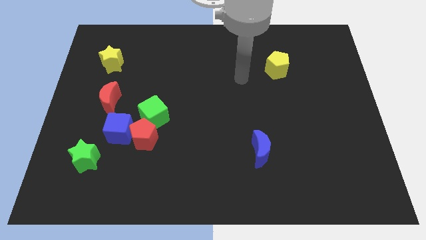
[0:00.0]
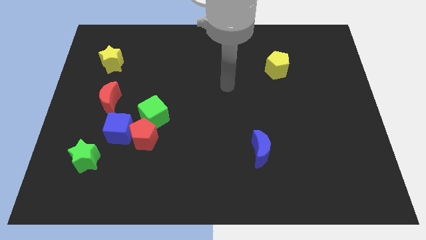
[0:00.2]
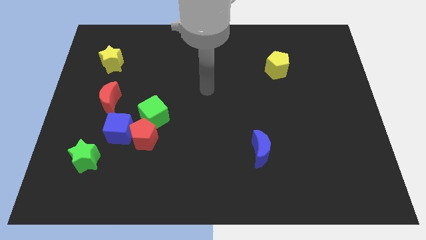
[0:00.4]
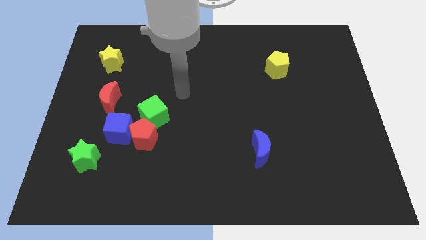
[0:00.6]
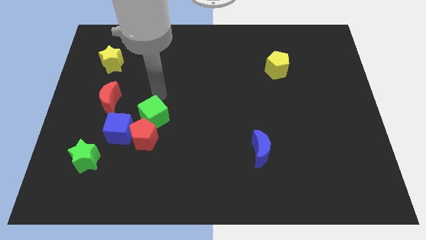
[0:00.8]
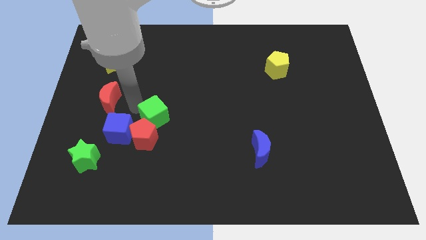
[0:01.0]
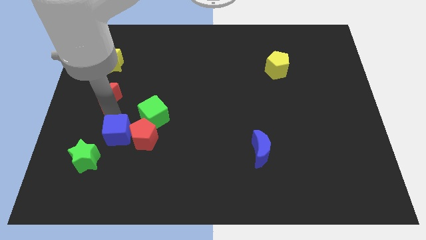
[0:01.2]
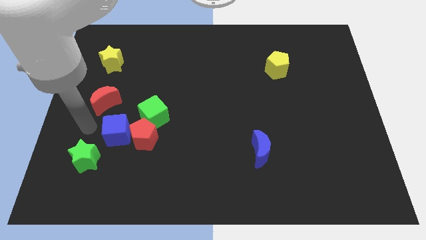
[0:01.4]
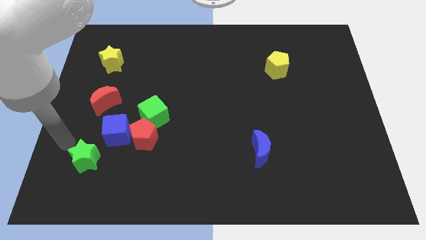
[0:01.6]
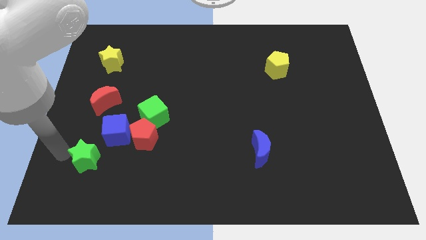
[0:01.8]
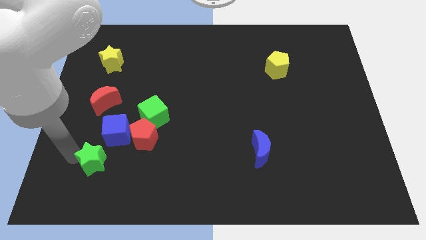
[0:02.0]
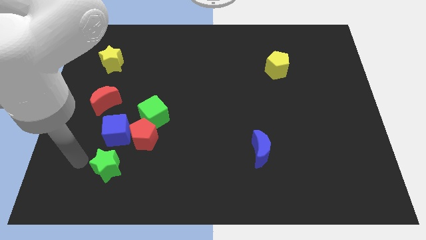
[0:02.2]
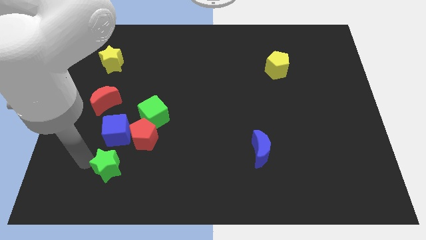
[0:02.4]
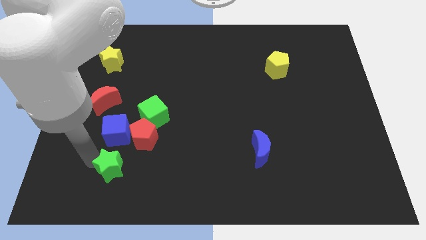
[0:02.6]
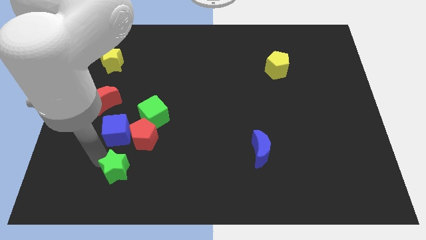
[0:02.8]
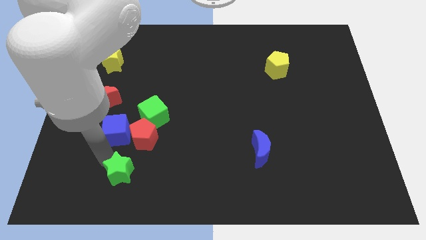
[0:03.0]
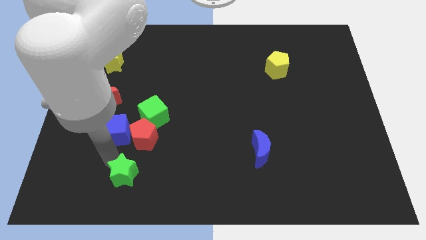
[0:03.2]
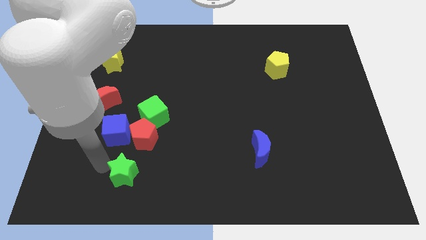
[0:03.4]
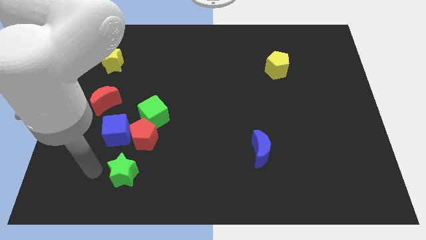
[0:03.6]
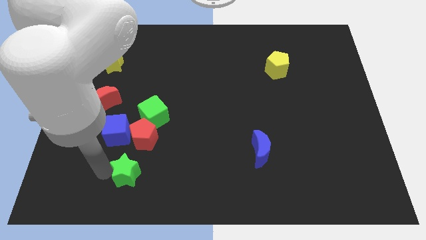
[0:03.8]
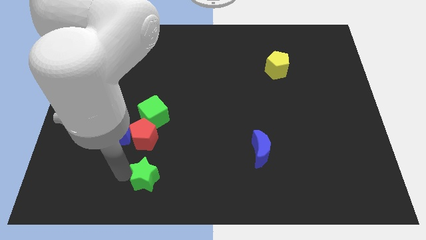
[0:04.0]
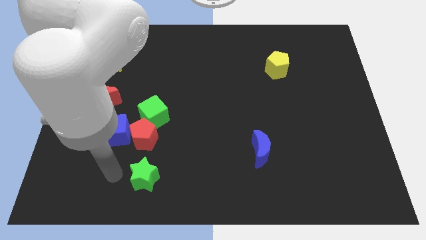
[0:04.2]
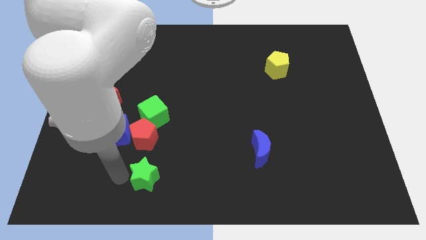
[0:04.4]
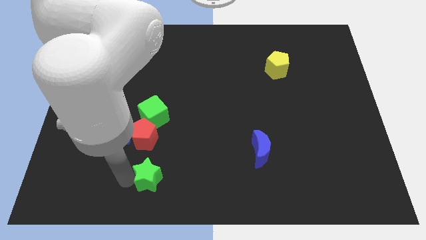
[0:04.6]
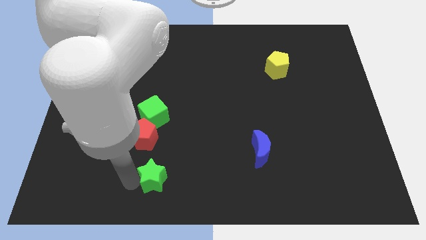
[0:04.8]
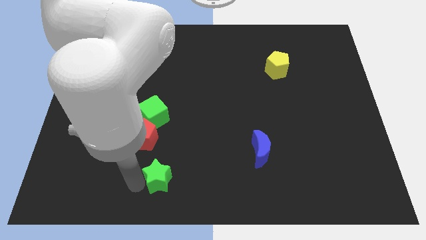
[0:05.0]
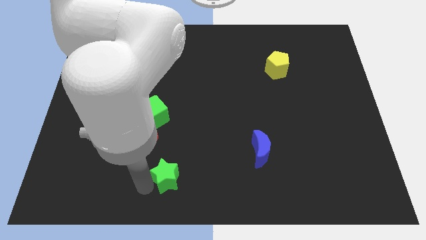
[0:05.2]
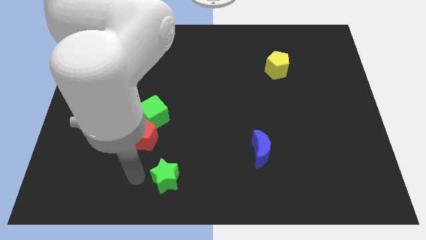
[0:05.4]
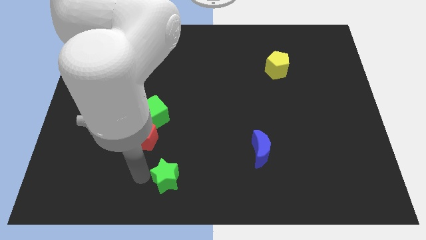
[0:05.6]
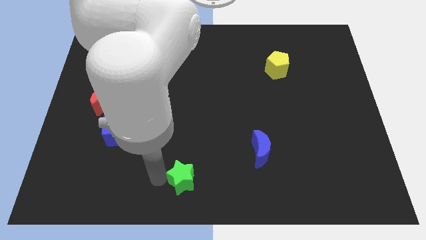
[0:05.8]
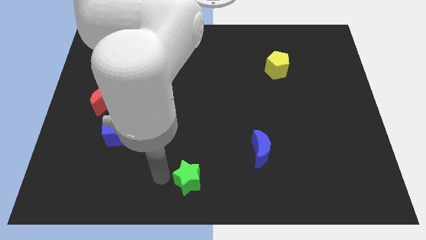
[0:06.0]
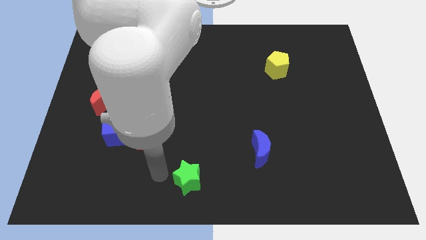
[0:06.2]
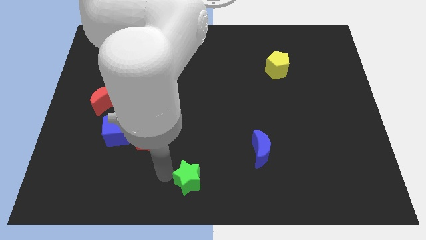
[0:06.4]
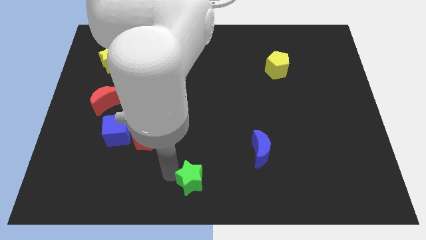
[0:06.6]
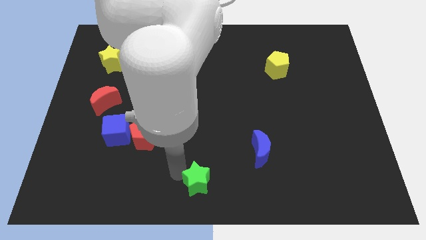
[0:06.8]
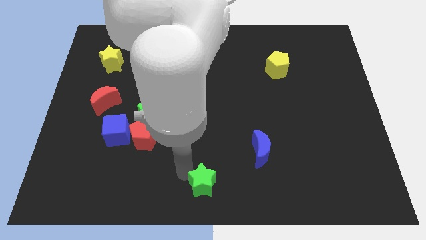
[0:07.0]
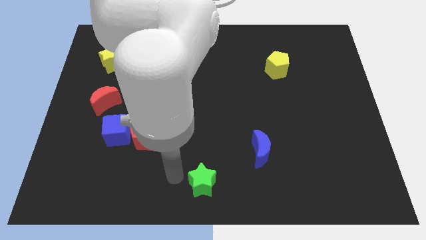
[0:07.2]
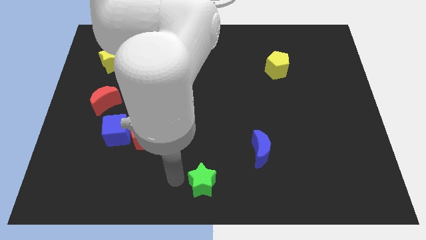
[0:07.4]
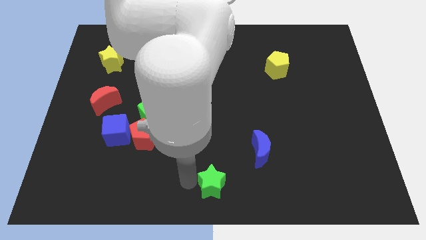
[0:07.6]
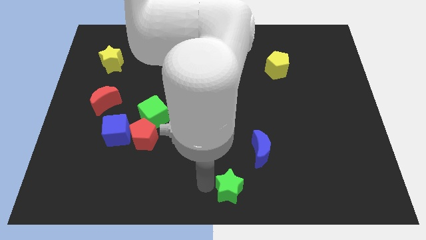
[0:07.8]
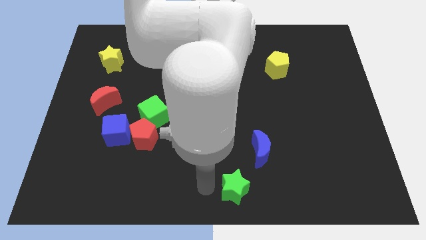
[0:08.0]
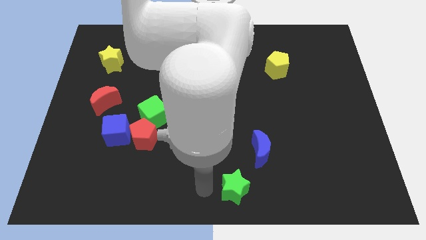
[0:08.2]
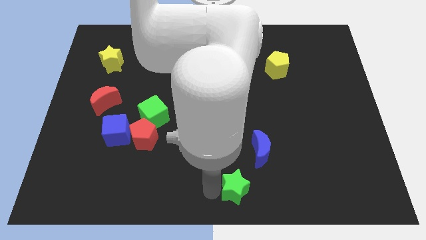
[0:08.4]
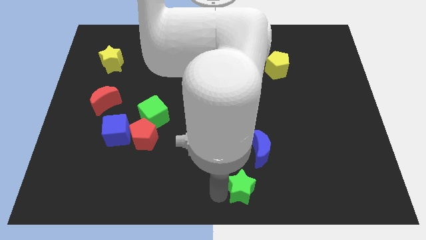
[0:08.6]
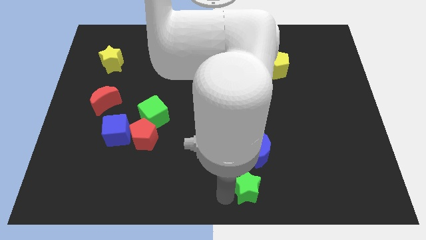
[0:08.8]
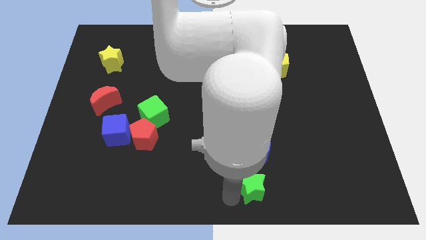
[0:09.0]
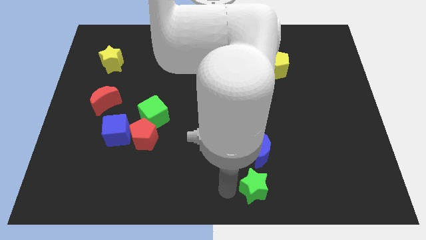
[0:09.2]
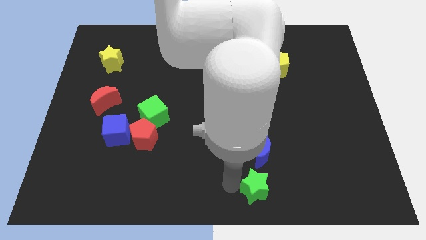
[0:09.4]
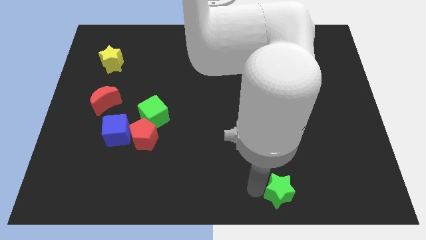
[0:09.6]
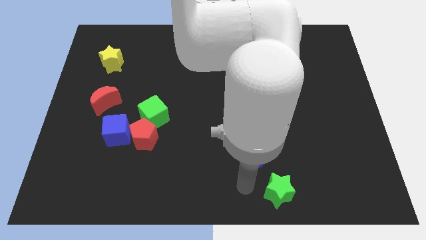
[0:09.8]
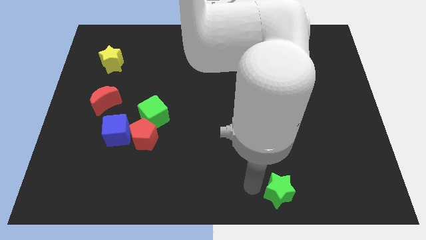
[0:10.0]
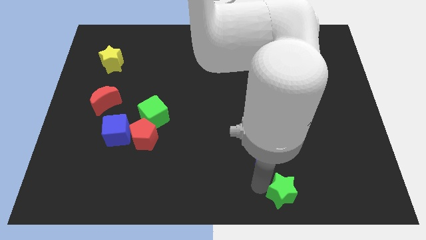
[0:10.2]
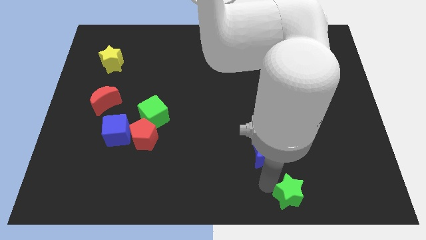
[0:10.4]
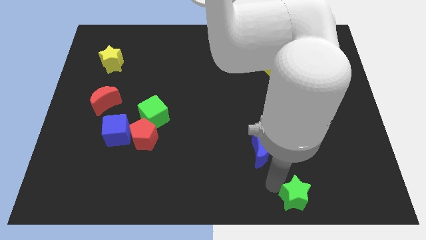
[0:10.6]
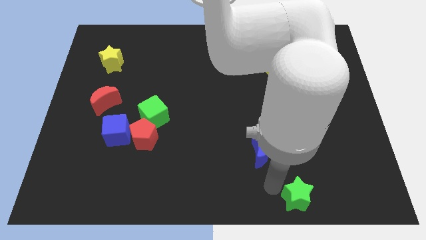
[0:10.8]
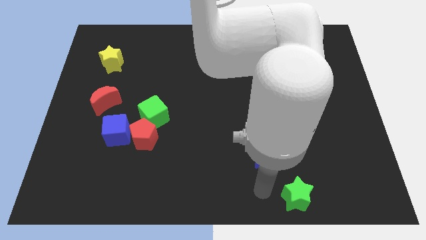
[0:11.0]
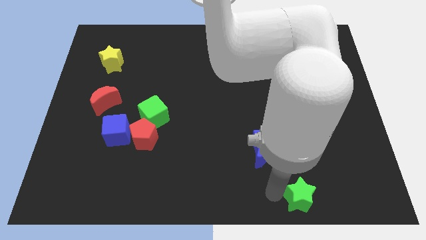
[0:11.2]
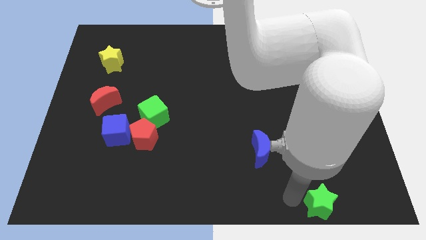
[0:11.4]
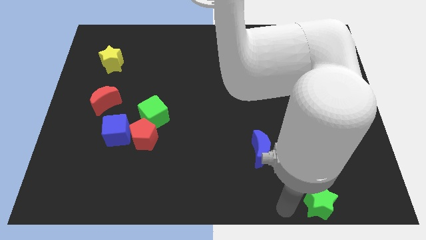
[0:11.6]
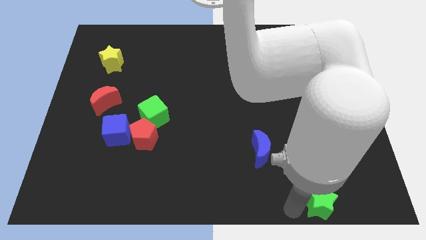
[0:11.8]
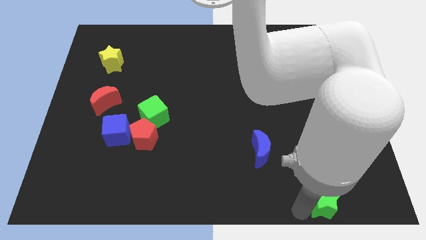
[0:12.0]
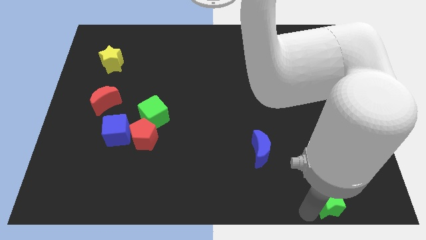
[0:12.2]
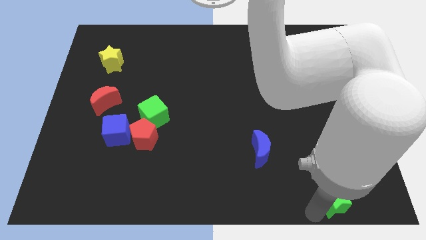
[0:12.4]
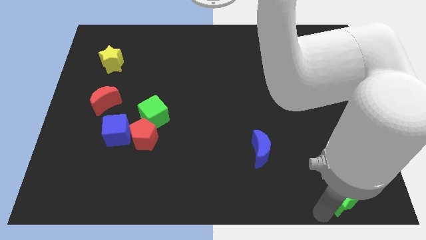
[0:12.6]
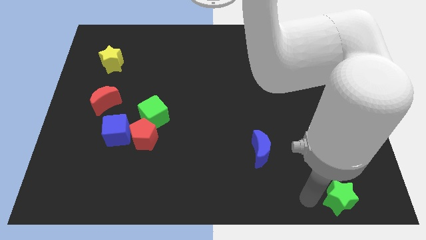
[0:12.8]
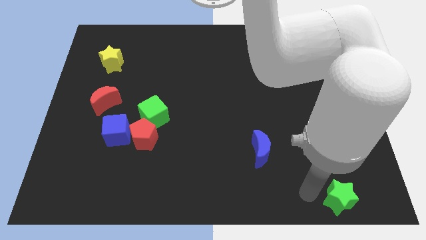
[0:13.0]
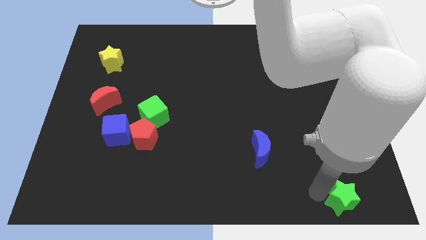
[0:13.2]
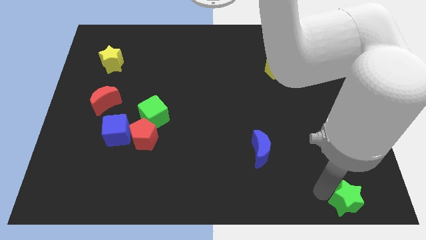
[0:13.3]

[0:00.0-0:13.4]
slide the green star to the bottom right of the board
